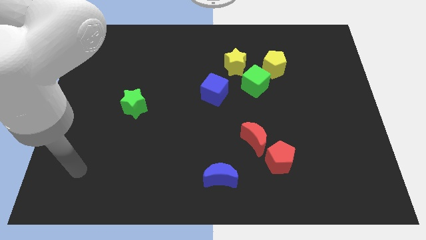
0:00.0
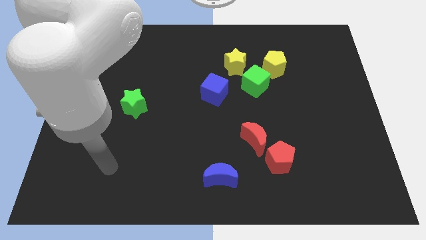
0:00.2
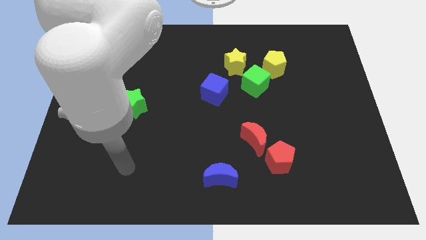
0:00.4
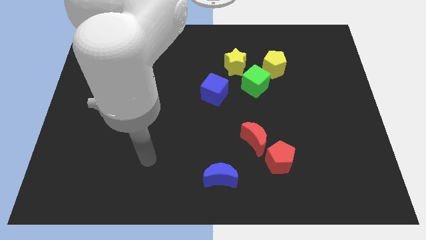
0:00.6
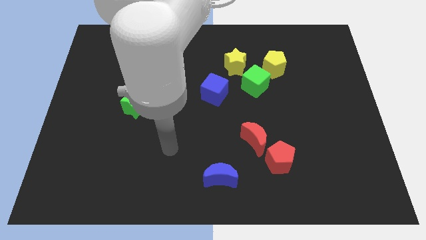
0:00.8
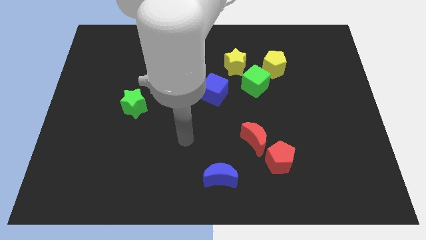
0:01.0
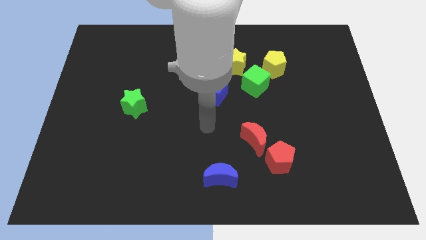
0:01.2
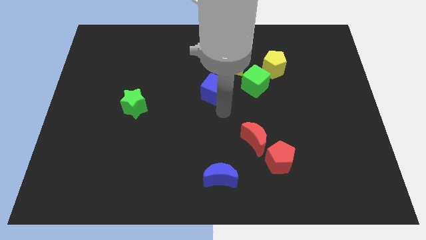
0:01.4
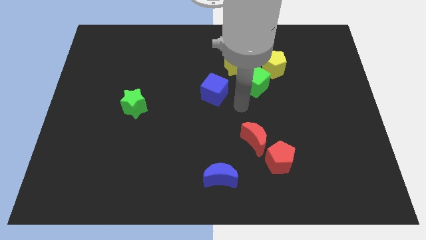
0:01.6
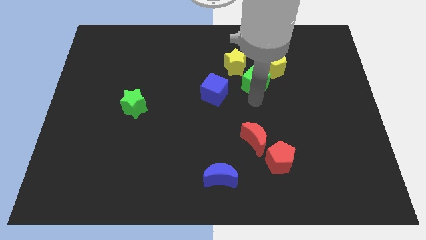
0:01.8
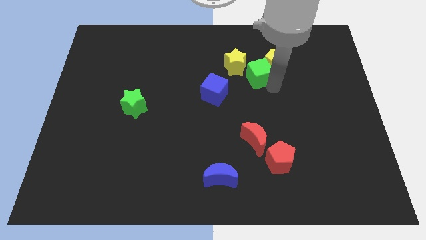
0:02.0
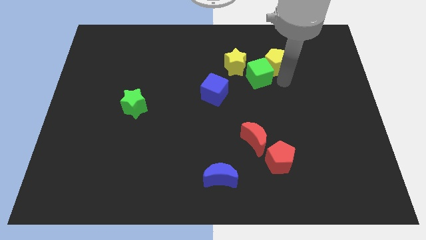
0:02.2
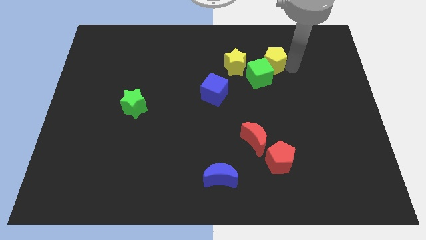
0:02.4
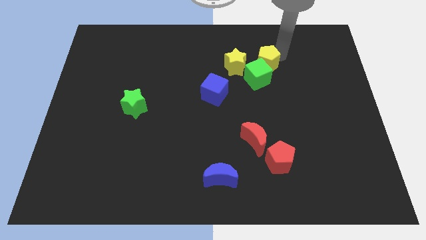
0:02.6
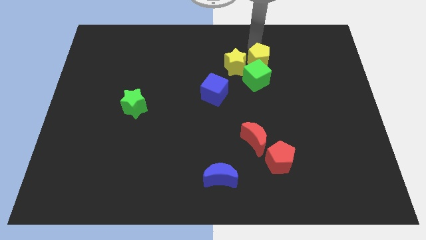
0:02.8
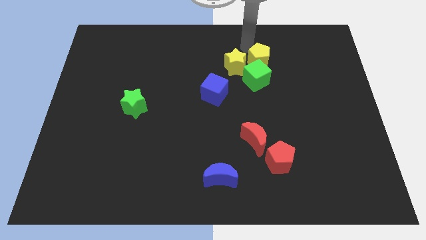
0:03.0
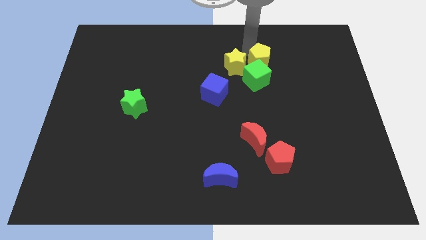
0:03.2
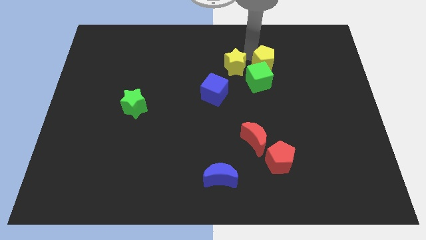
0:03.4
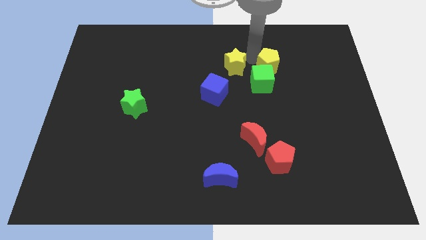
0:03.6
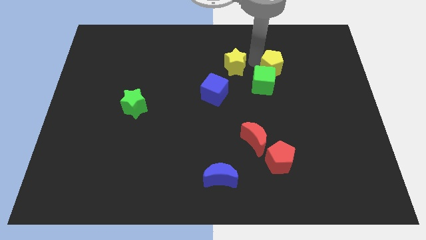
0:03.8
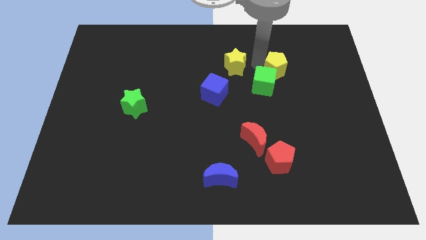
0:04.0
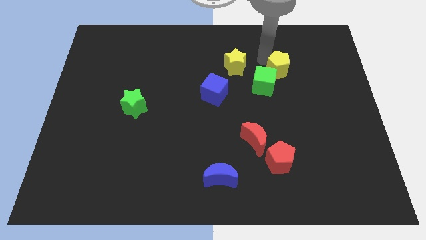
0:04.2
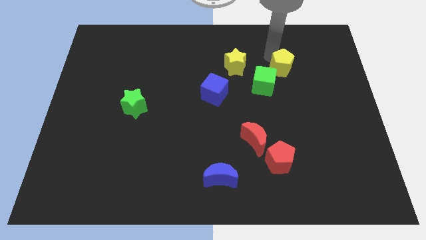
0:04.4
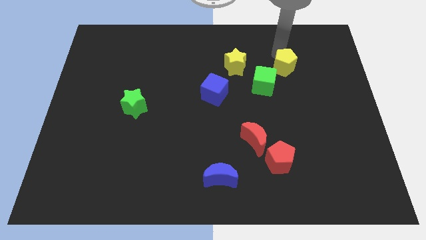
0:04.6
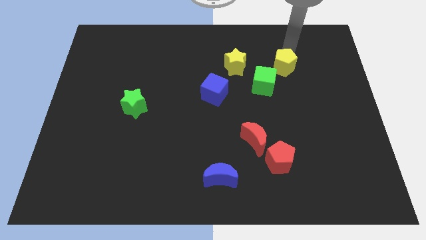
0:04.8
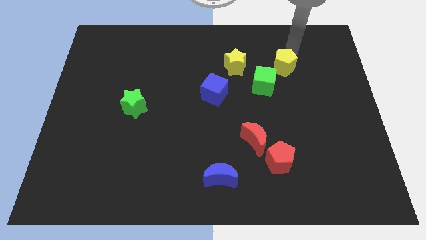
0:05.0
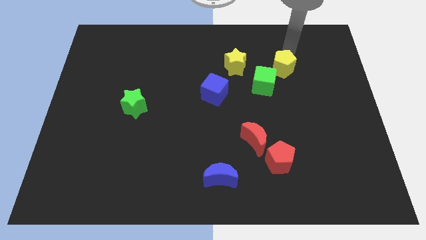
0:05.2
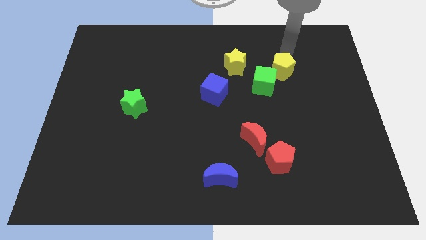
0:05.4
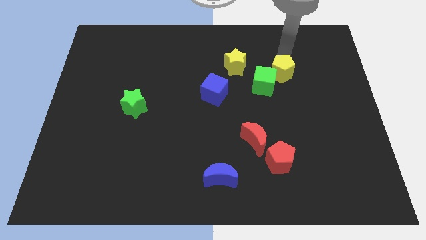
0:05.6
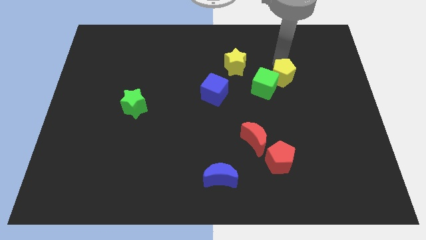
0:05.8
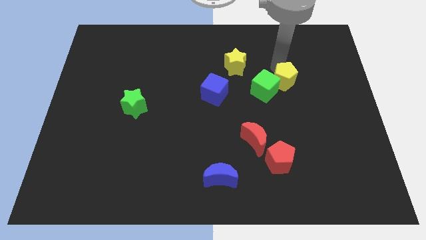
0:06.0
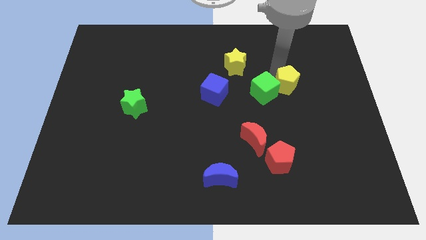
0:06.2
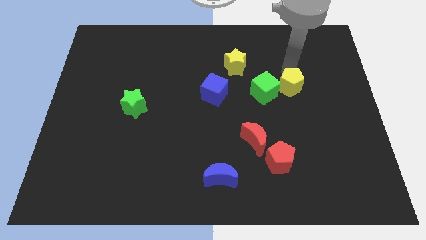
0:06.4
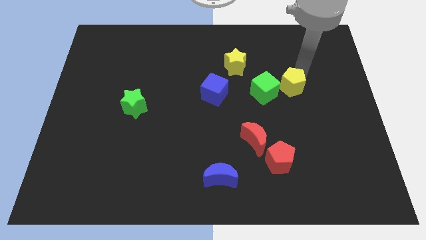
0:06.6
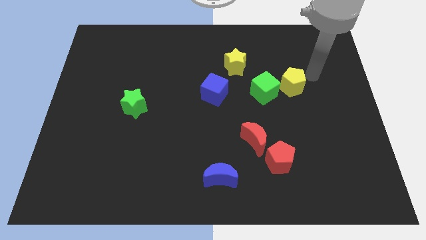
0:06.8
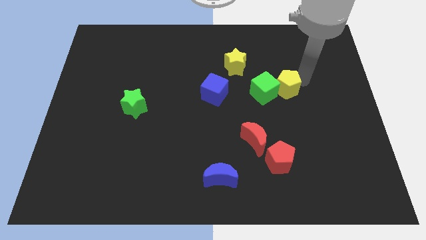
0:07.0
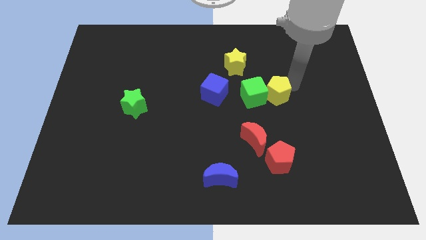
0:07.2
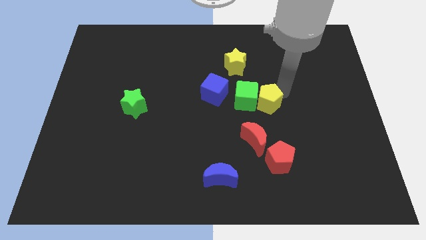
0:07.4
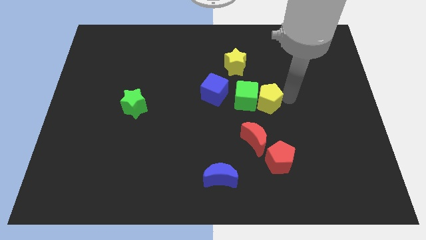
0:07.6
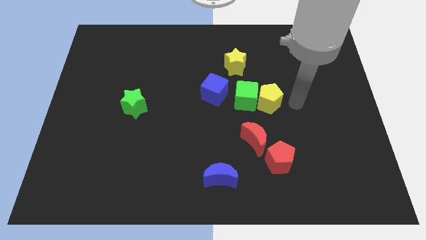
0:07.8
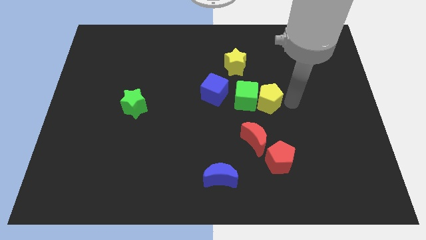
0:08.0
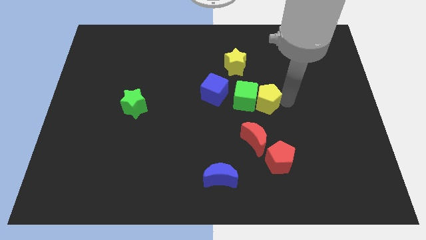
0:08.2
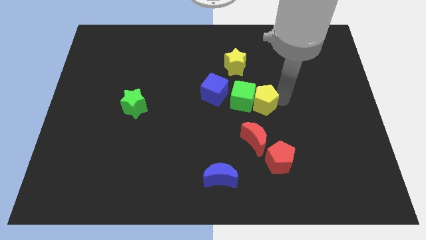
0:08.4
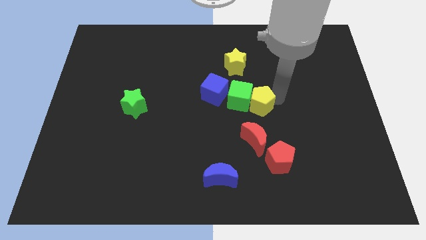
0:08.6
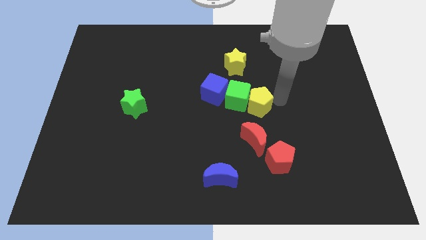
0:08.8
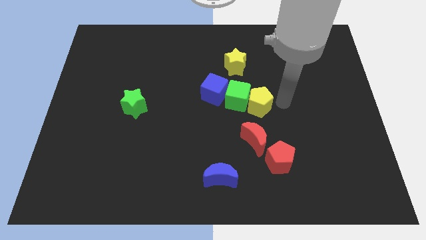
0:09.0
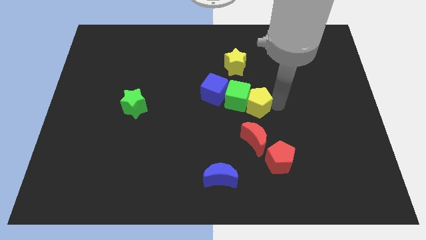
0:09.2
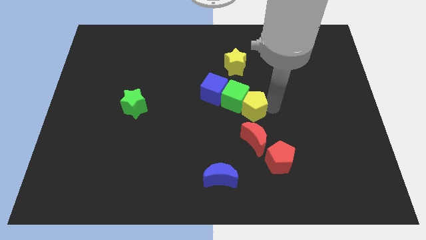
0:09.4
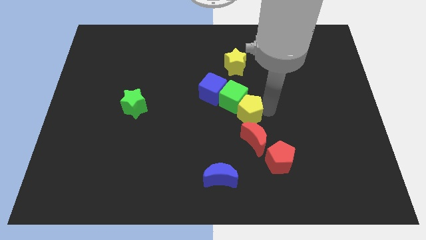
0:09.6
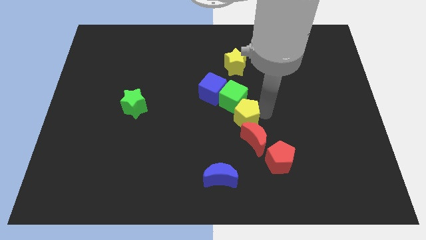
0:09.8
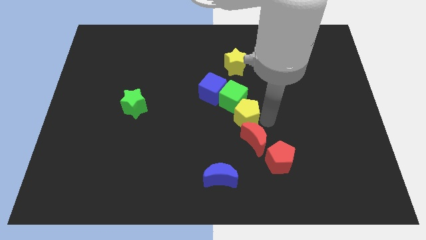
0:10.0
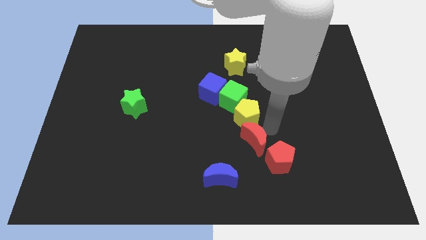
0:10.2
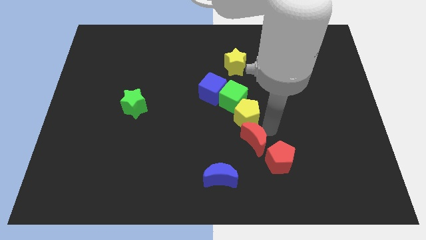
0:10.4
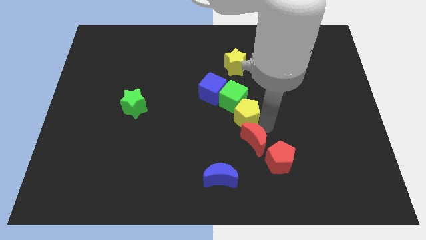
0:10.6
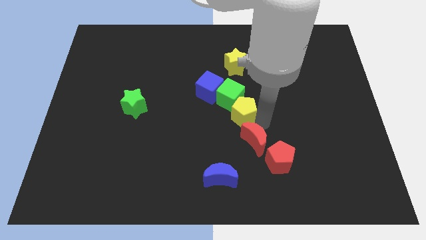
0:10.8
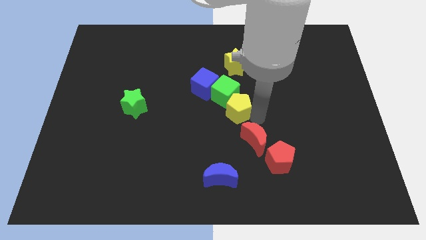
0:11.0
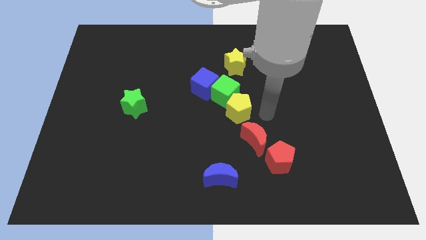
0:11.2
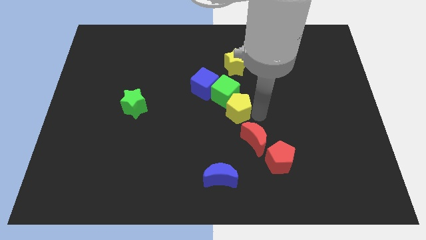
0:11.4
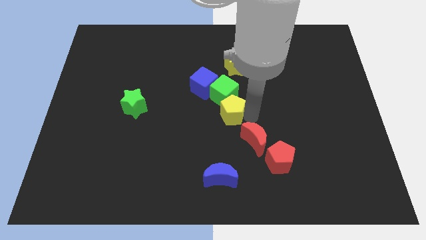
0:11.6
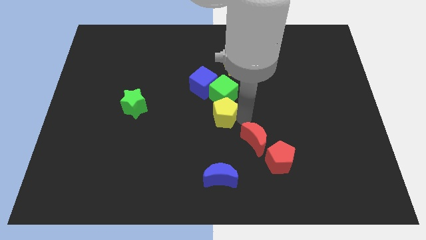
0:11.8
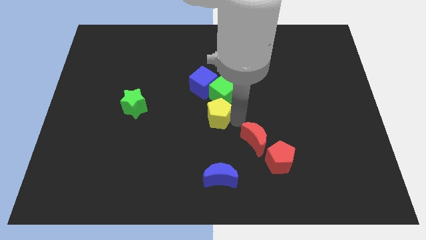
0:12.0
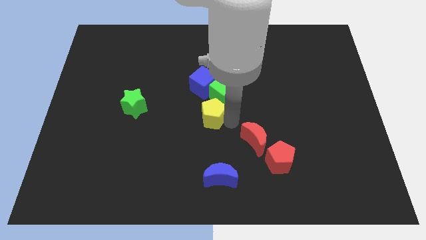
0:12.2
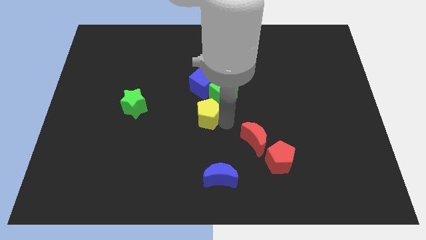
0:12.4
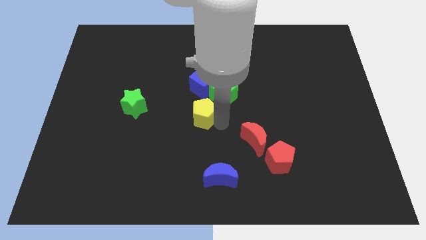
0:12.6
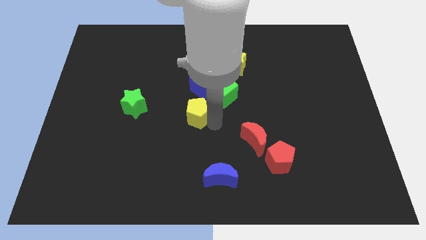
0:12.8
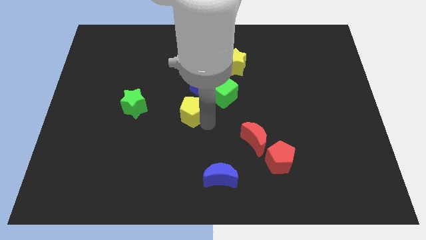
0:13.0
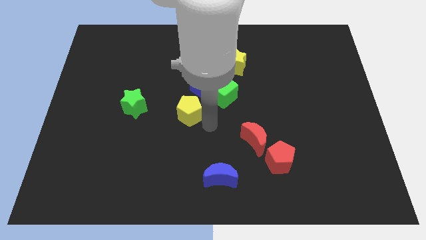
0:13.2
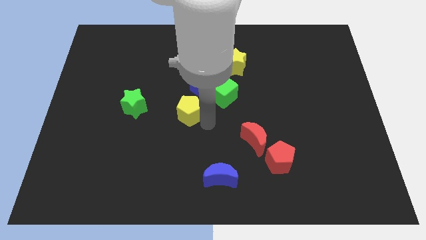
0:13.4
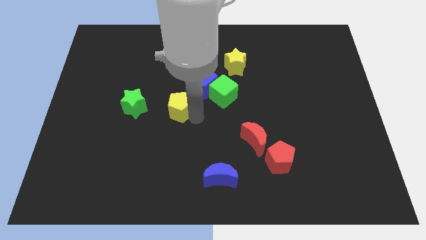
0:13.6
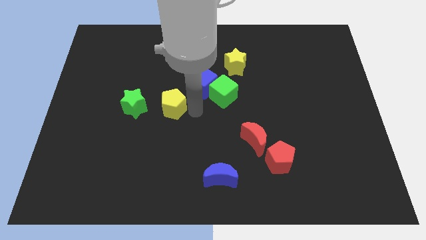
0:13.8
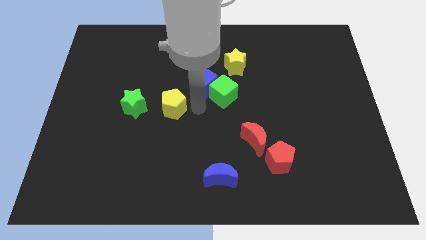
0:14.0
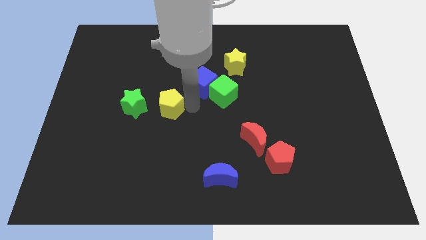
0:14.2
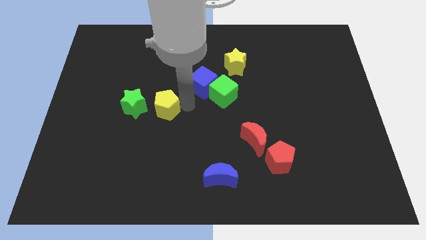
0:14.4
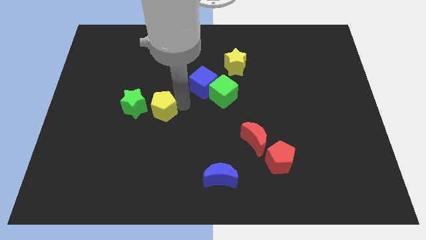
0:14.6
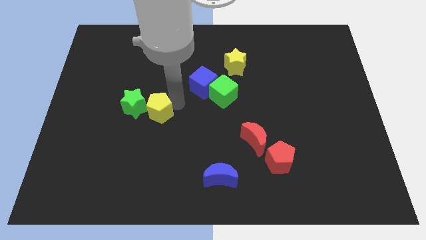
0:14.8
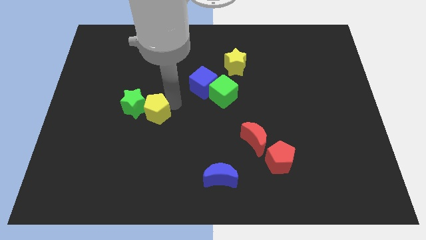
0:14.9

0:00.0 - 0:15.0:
put the yellow pentagon next to the green star

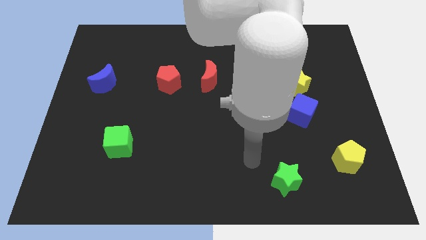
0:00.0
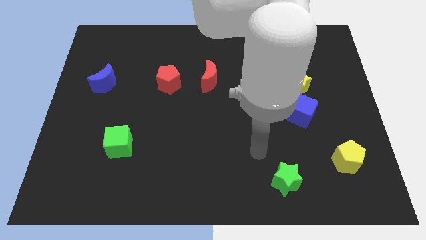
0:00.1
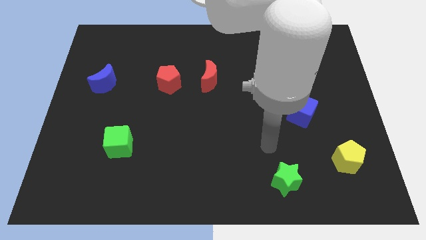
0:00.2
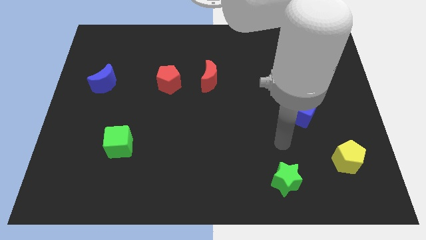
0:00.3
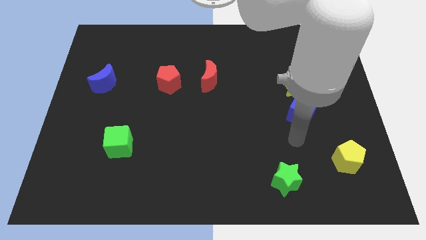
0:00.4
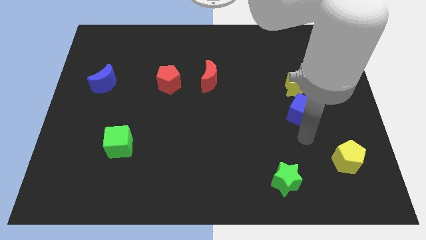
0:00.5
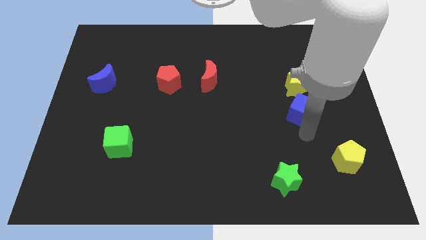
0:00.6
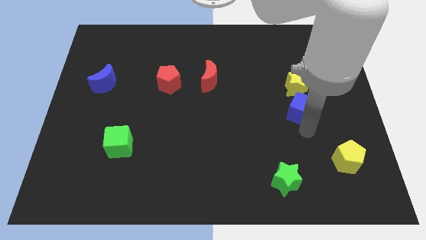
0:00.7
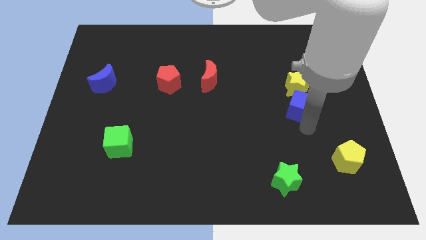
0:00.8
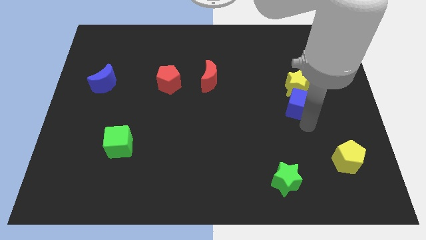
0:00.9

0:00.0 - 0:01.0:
push the blue cube next to the yellow star
